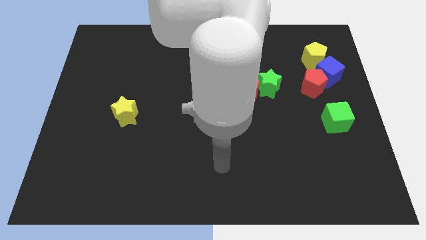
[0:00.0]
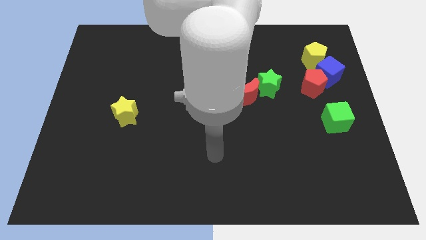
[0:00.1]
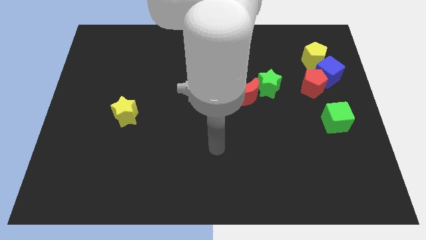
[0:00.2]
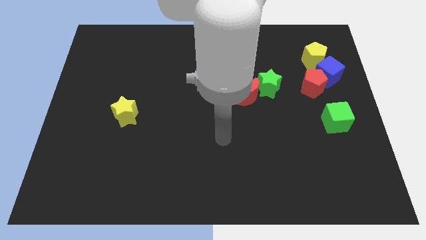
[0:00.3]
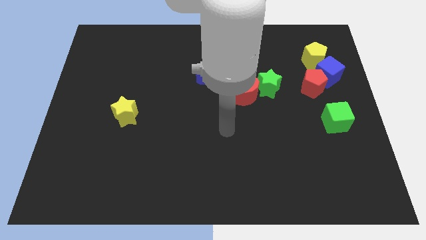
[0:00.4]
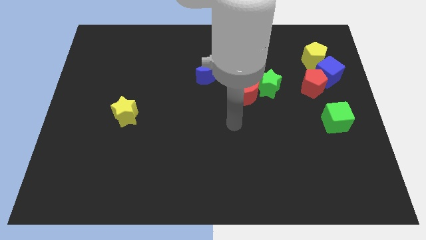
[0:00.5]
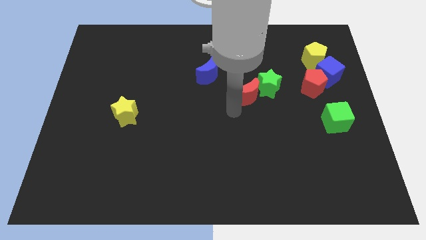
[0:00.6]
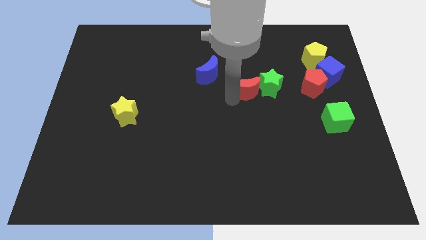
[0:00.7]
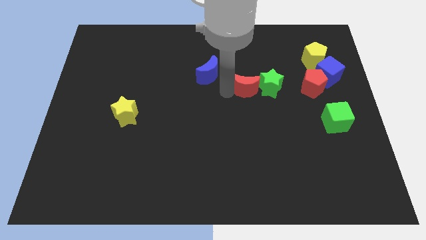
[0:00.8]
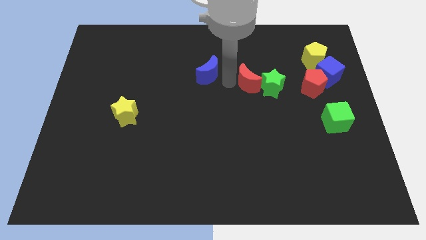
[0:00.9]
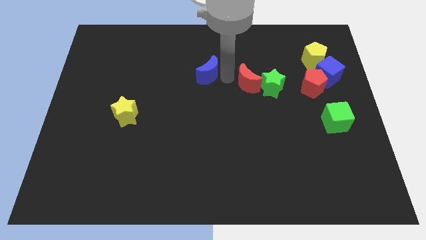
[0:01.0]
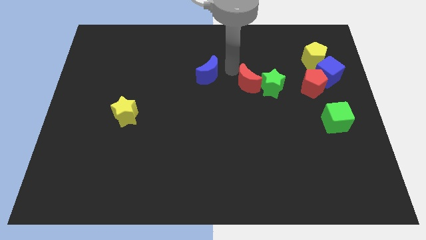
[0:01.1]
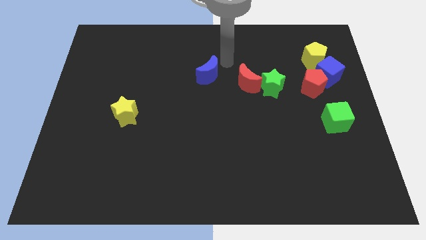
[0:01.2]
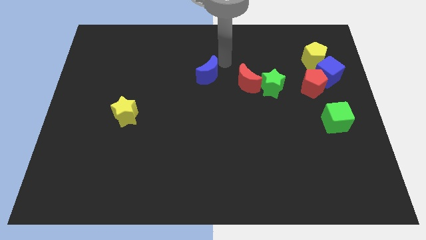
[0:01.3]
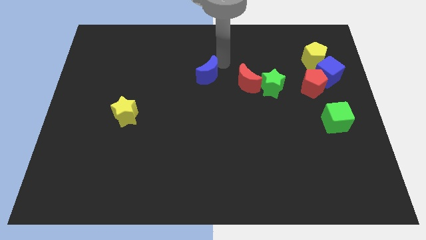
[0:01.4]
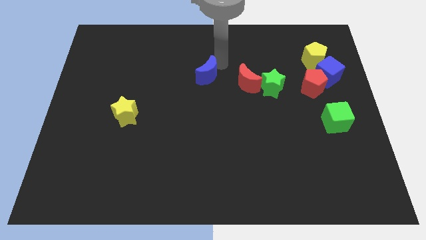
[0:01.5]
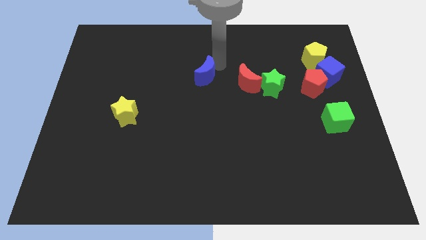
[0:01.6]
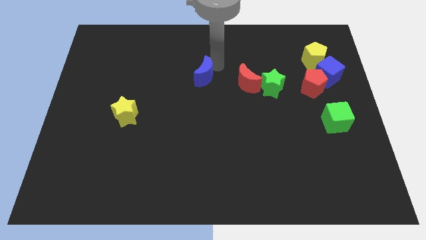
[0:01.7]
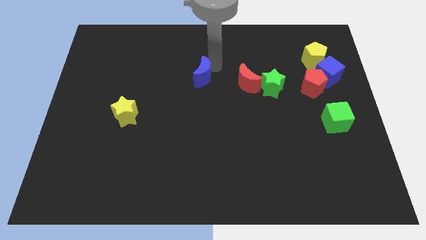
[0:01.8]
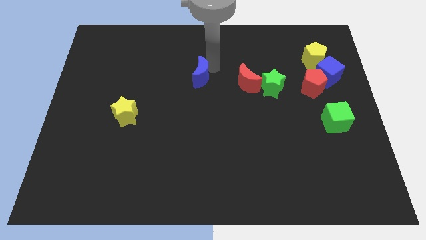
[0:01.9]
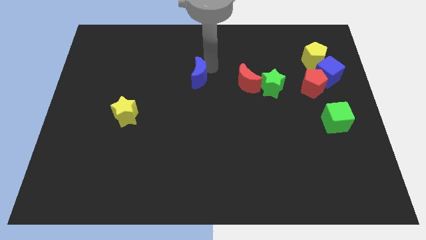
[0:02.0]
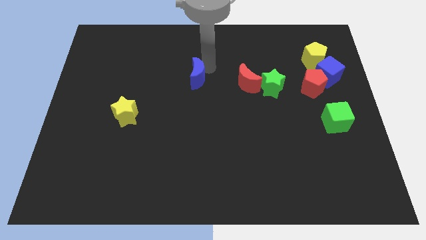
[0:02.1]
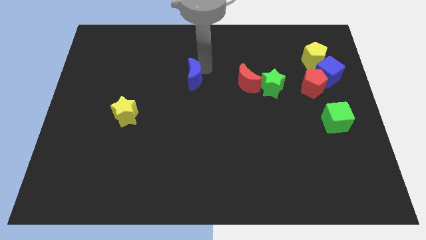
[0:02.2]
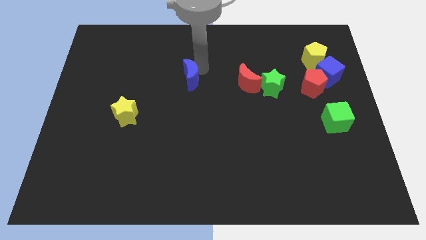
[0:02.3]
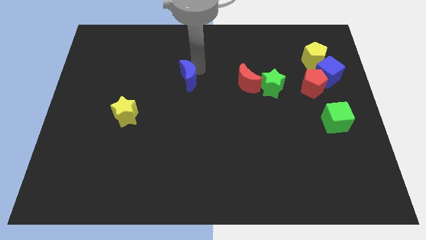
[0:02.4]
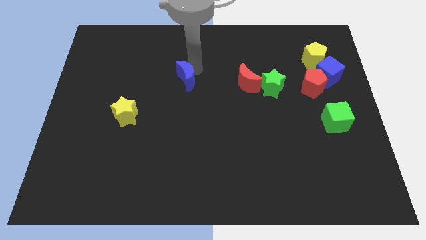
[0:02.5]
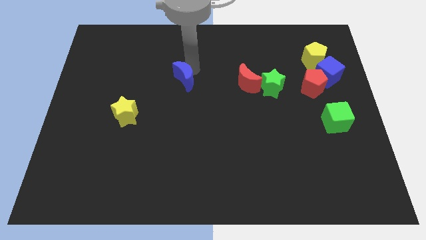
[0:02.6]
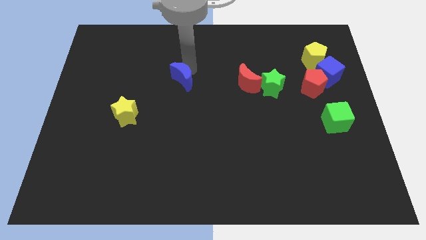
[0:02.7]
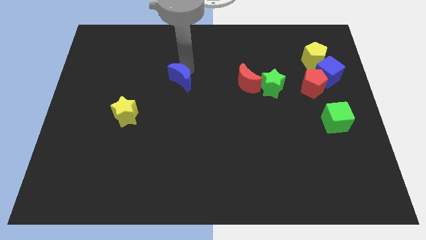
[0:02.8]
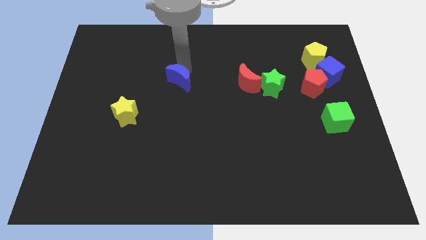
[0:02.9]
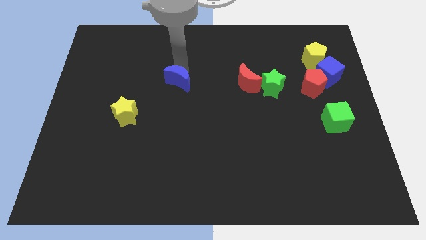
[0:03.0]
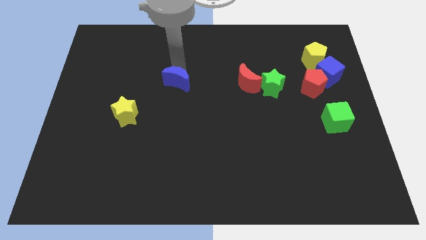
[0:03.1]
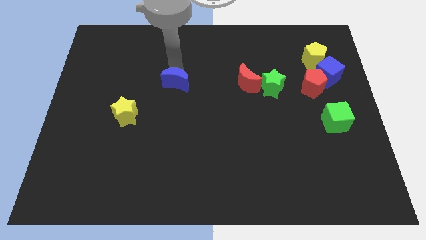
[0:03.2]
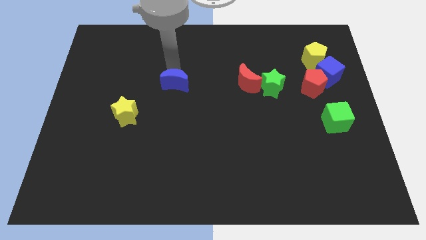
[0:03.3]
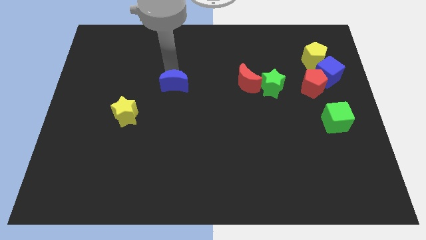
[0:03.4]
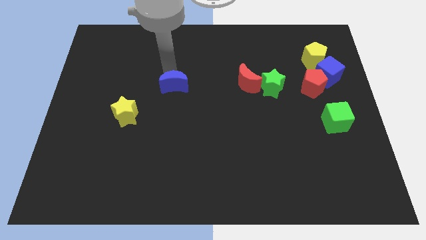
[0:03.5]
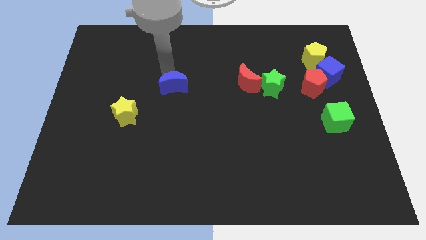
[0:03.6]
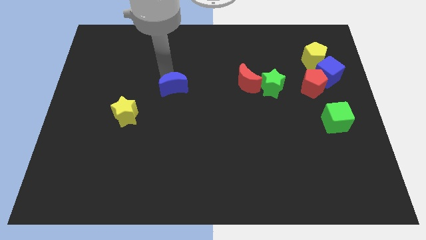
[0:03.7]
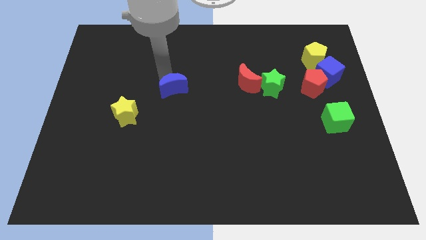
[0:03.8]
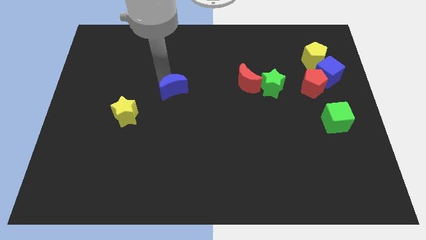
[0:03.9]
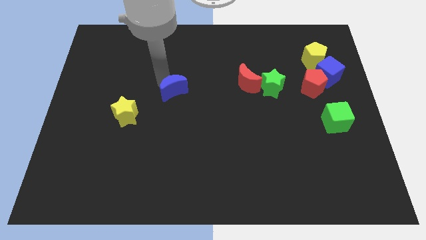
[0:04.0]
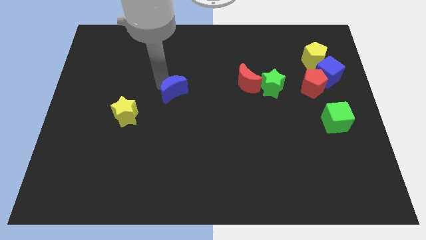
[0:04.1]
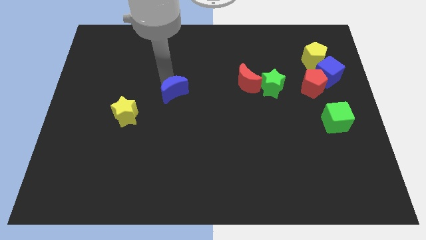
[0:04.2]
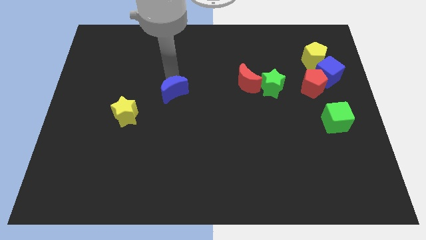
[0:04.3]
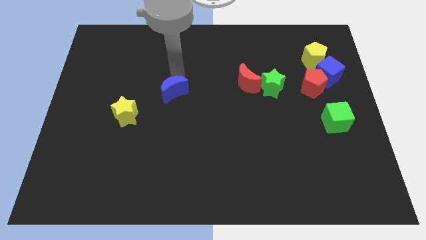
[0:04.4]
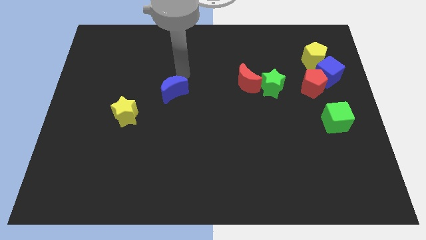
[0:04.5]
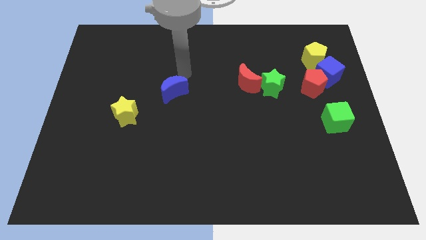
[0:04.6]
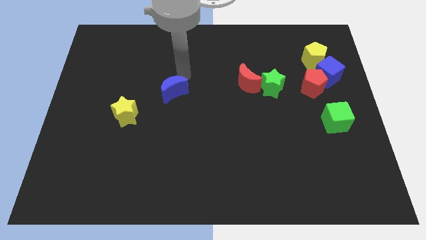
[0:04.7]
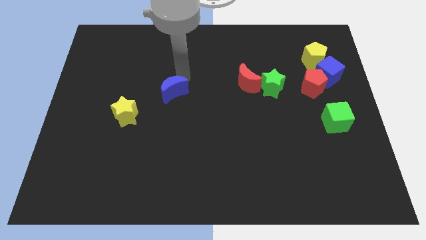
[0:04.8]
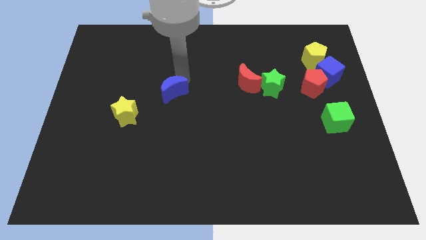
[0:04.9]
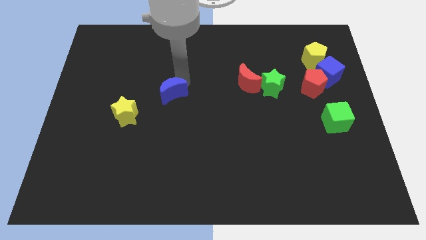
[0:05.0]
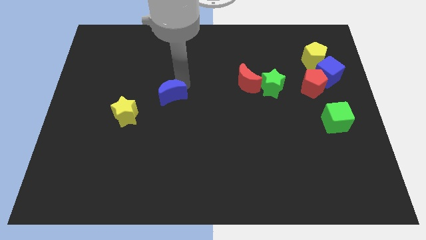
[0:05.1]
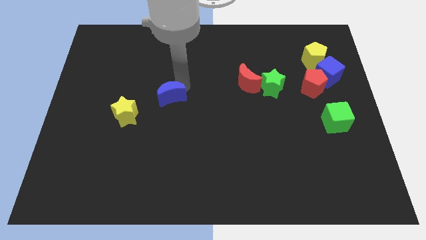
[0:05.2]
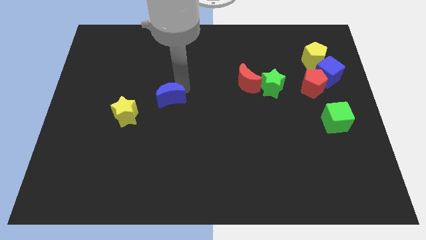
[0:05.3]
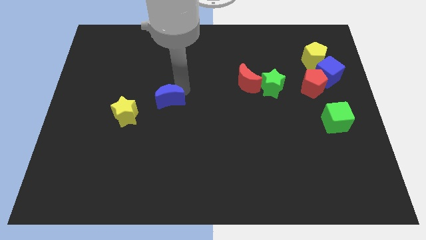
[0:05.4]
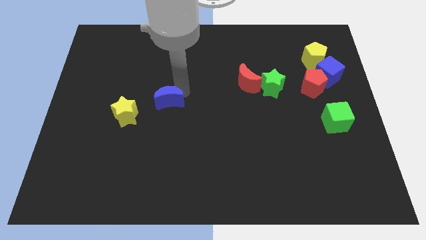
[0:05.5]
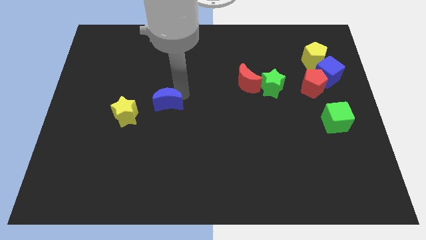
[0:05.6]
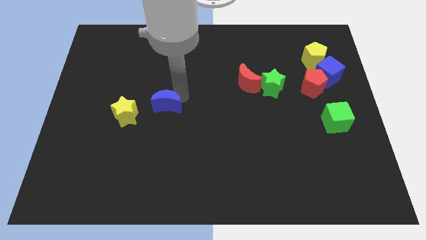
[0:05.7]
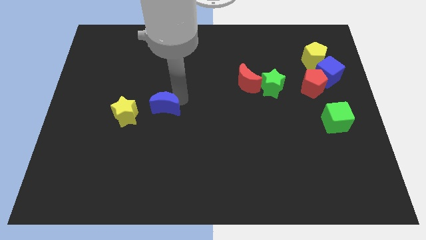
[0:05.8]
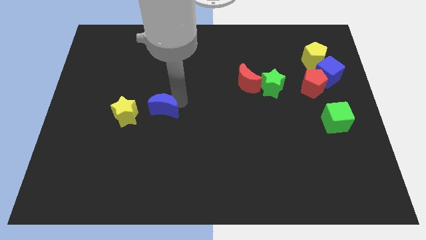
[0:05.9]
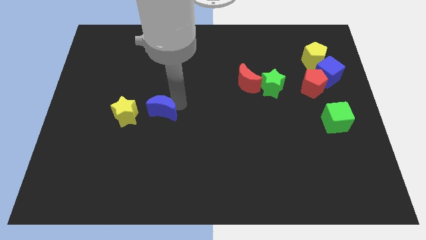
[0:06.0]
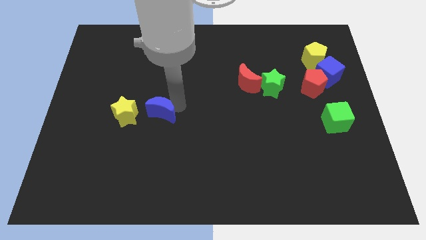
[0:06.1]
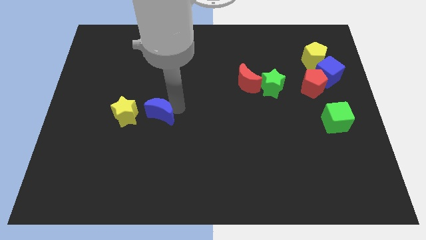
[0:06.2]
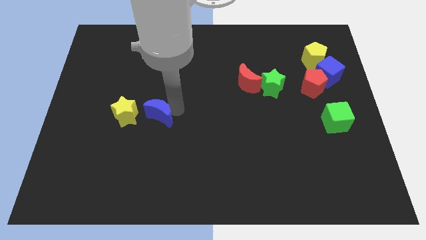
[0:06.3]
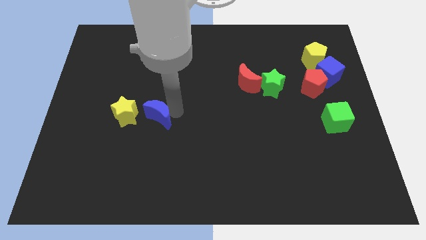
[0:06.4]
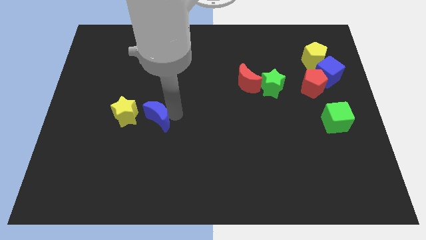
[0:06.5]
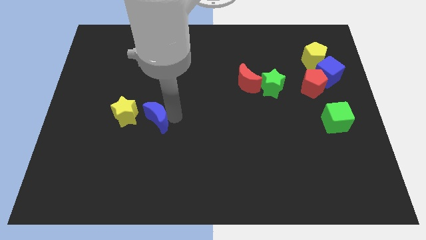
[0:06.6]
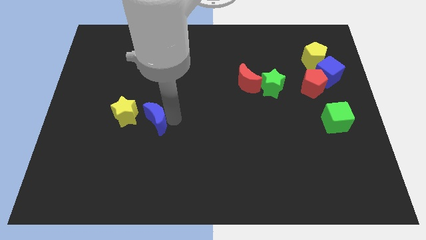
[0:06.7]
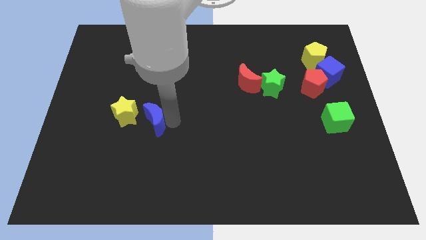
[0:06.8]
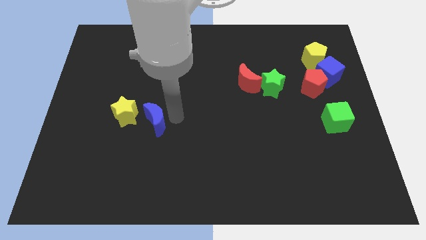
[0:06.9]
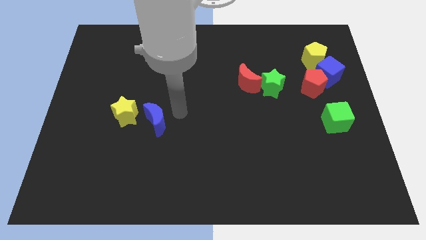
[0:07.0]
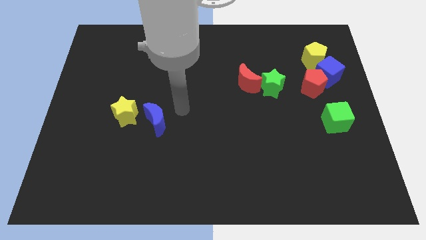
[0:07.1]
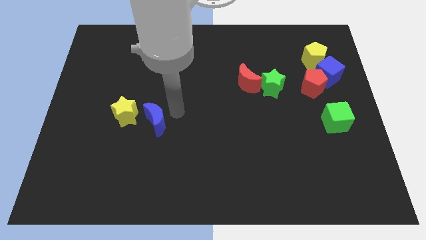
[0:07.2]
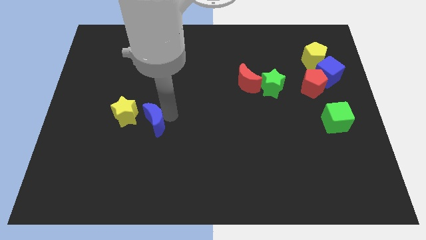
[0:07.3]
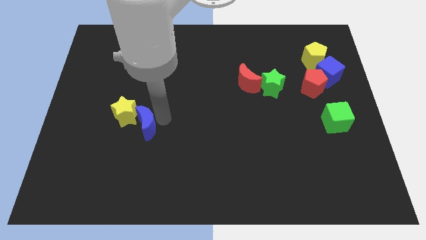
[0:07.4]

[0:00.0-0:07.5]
move the blue moon down and left diagonally

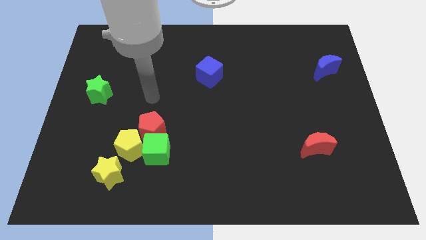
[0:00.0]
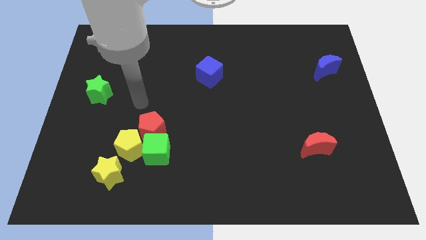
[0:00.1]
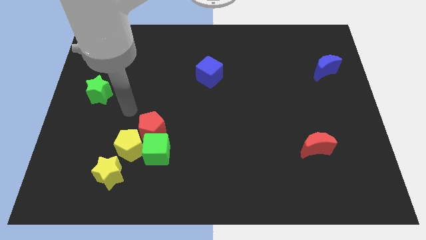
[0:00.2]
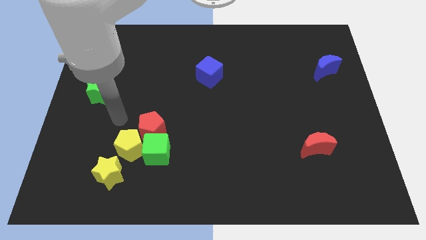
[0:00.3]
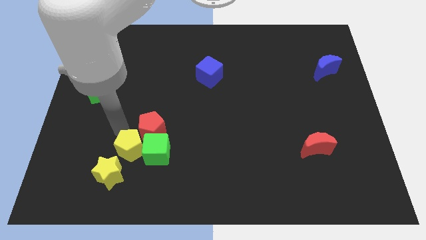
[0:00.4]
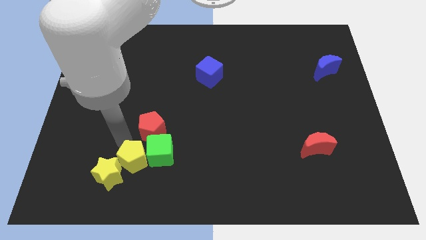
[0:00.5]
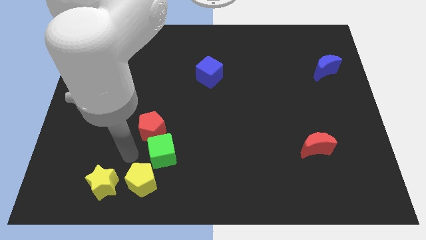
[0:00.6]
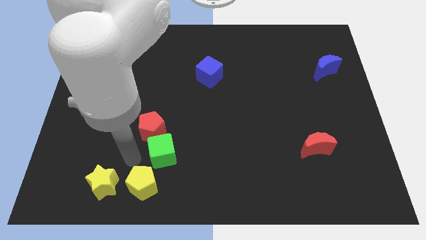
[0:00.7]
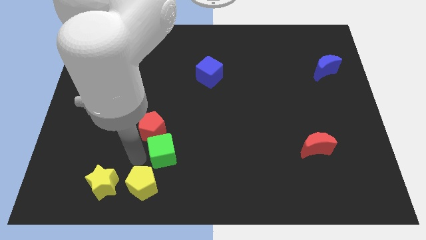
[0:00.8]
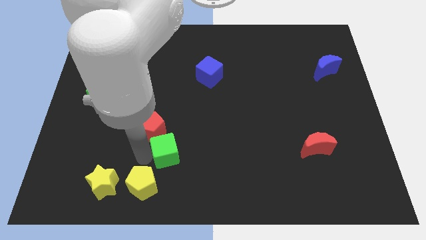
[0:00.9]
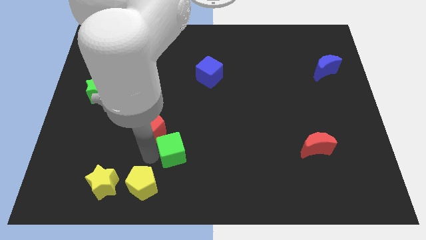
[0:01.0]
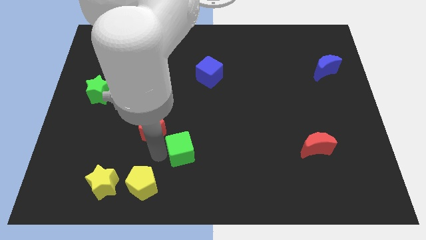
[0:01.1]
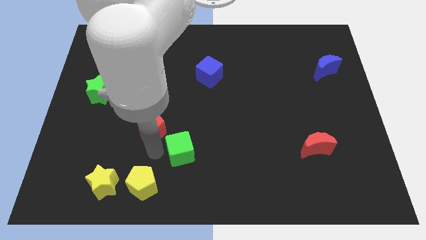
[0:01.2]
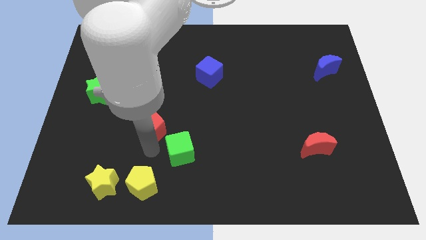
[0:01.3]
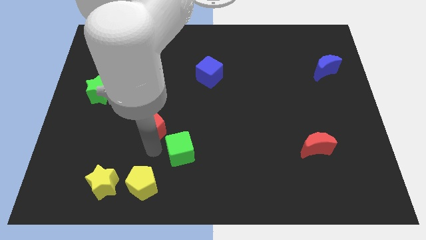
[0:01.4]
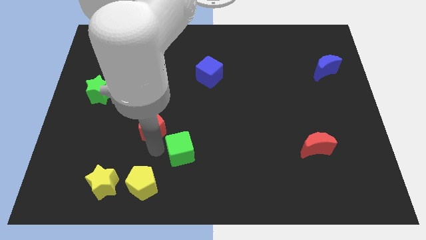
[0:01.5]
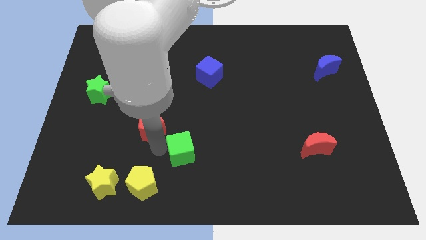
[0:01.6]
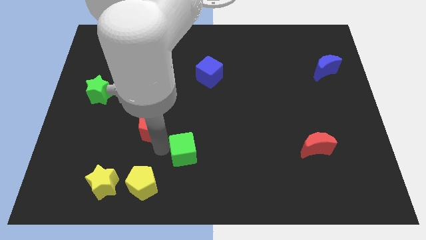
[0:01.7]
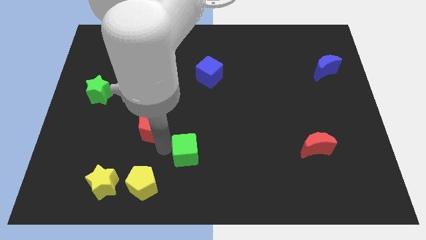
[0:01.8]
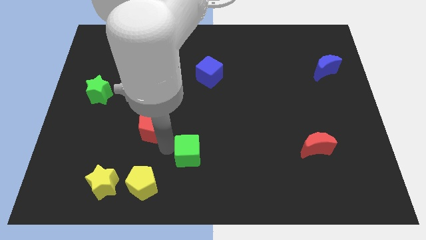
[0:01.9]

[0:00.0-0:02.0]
slide the green cube right a bit
